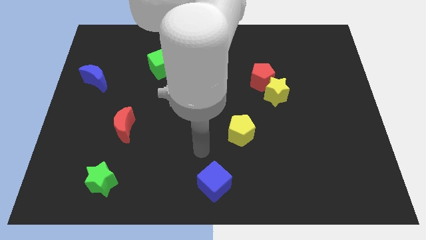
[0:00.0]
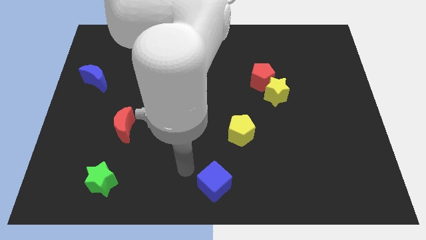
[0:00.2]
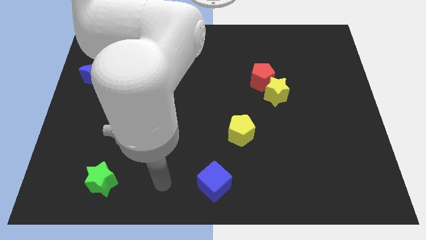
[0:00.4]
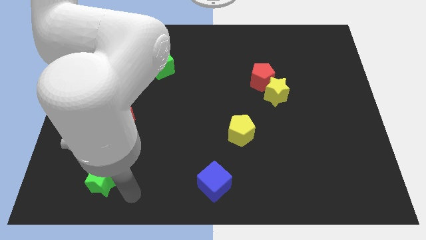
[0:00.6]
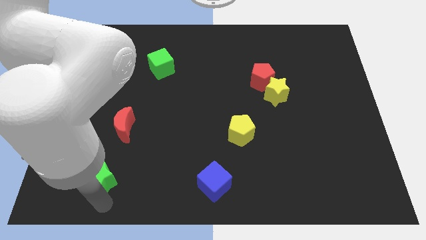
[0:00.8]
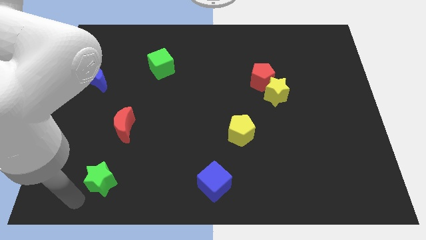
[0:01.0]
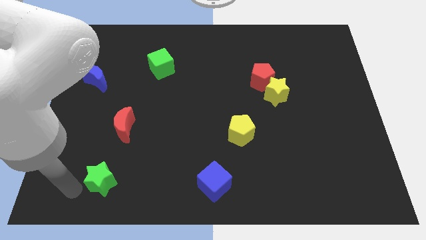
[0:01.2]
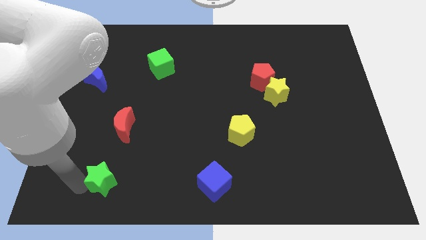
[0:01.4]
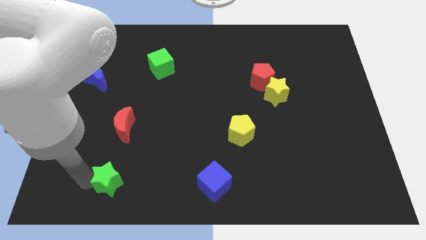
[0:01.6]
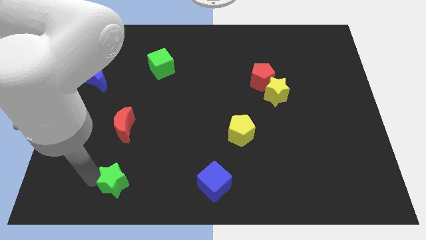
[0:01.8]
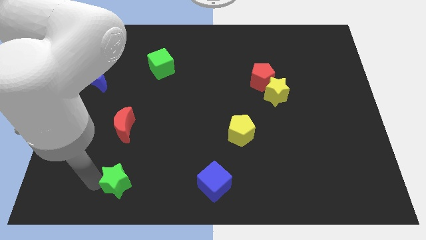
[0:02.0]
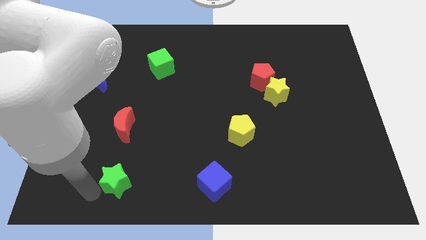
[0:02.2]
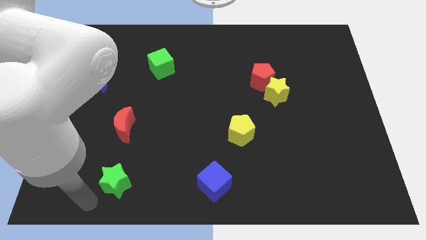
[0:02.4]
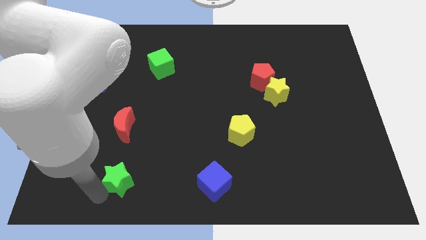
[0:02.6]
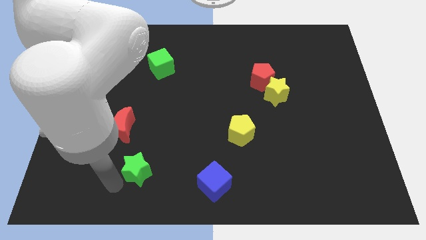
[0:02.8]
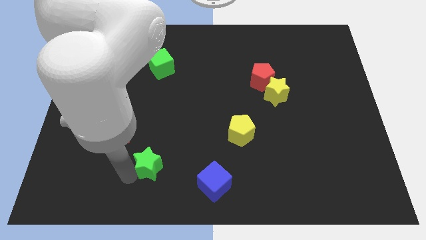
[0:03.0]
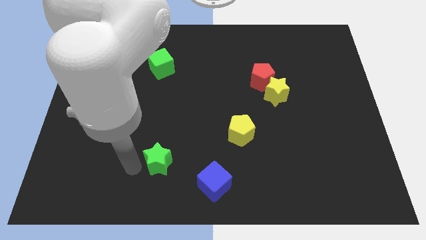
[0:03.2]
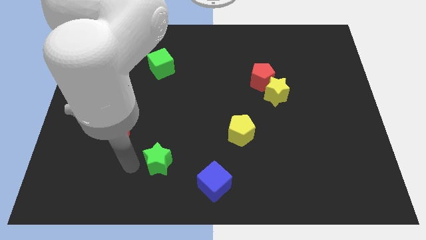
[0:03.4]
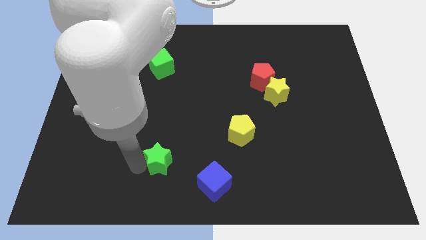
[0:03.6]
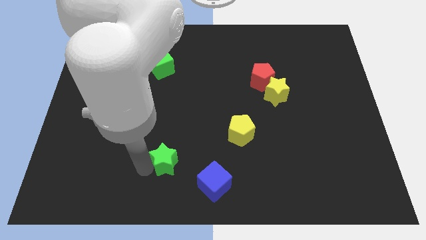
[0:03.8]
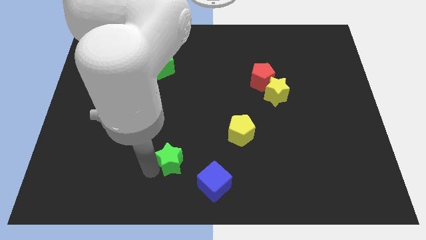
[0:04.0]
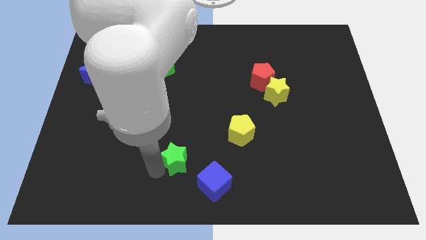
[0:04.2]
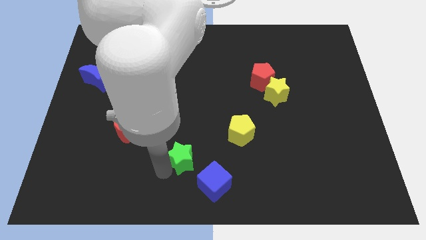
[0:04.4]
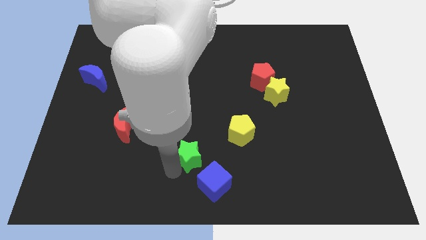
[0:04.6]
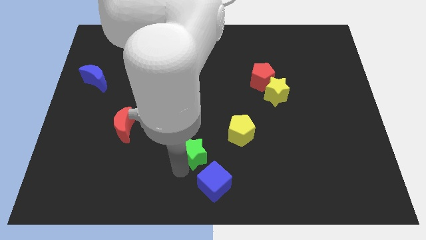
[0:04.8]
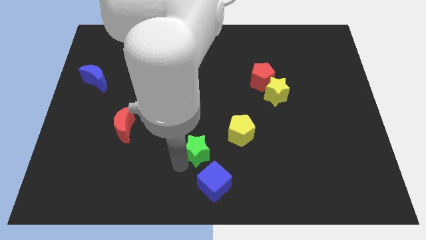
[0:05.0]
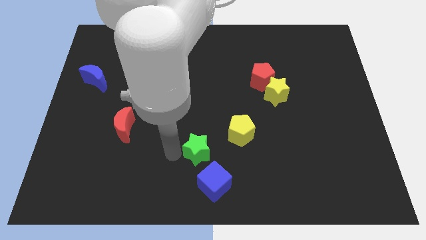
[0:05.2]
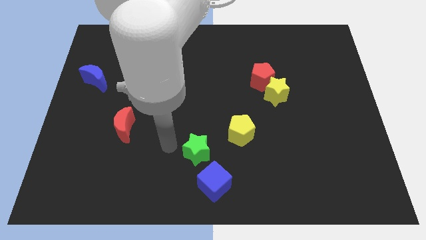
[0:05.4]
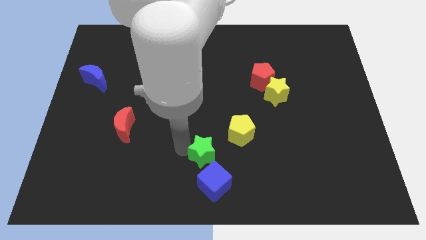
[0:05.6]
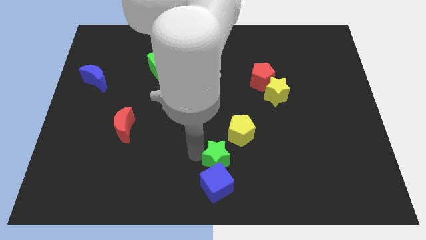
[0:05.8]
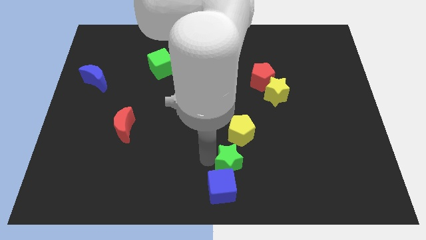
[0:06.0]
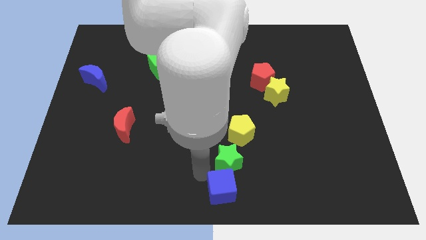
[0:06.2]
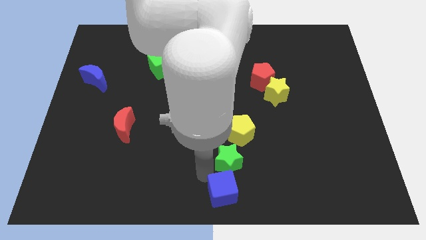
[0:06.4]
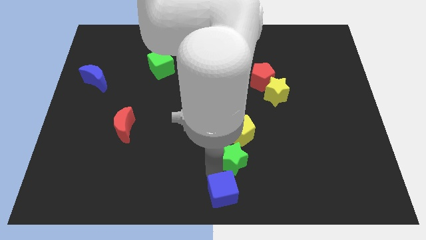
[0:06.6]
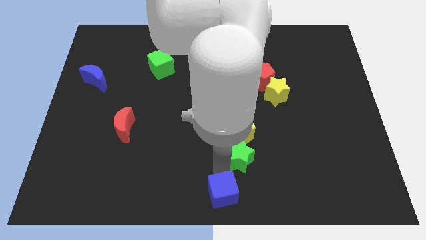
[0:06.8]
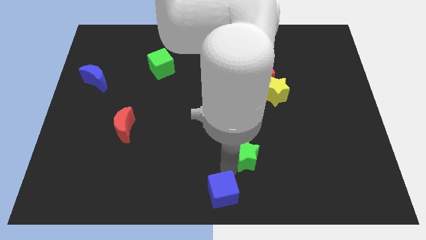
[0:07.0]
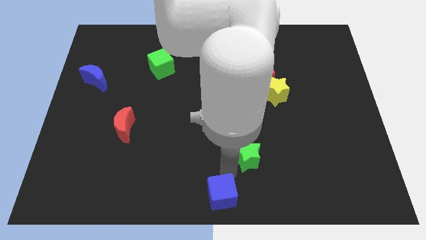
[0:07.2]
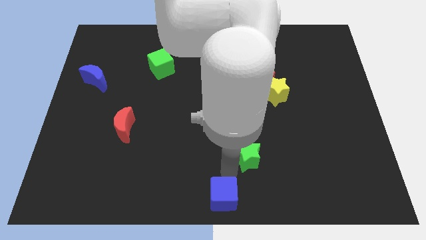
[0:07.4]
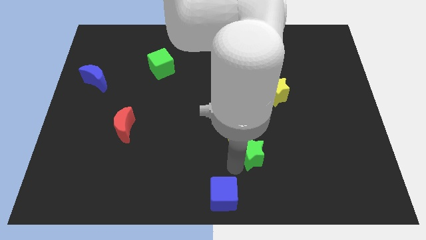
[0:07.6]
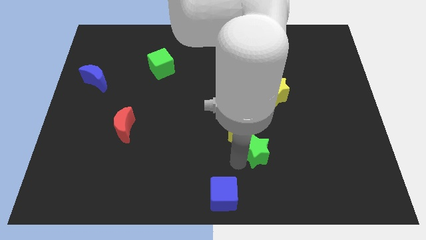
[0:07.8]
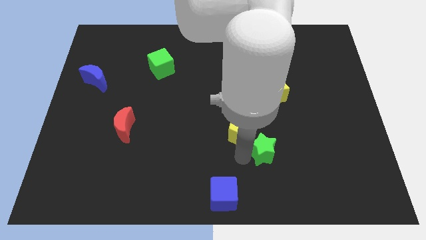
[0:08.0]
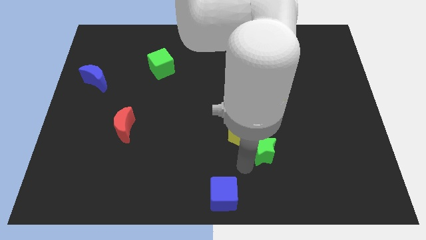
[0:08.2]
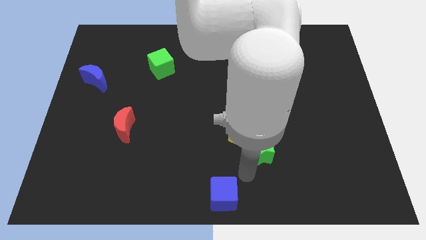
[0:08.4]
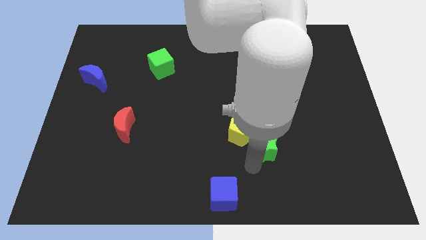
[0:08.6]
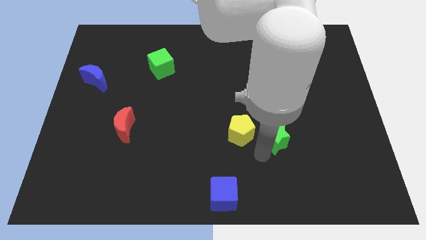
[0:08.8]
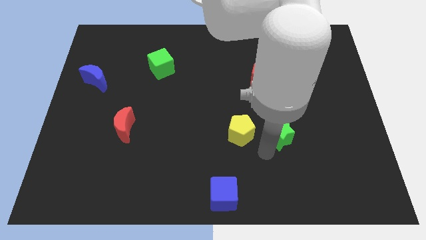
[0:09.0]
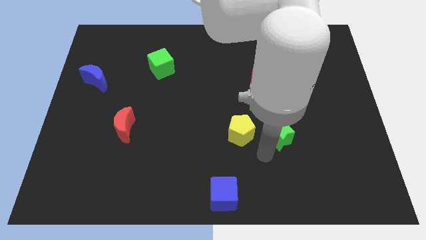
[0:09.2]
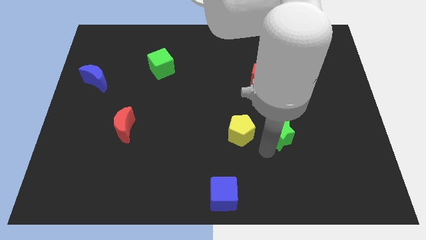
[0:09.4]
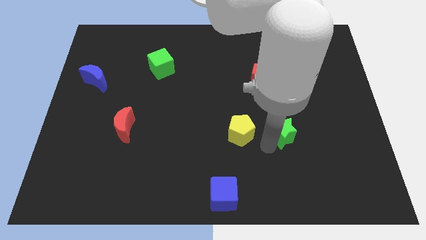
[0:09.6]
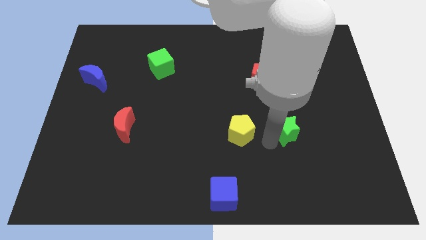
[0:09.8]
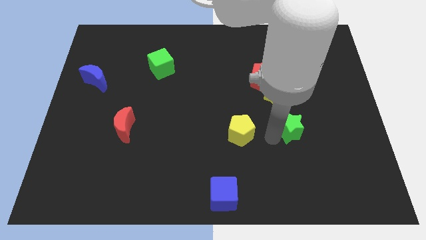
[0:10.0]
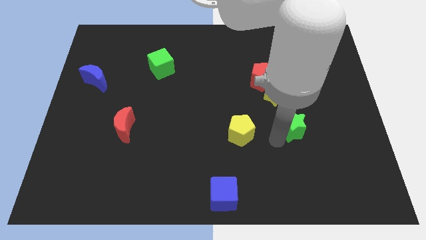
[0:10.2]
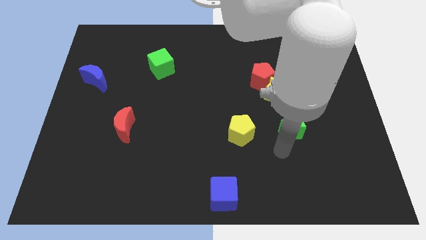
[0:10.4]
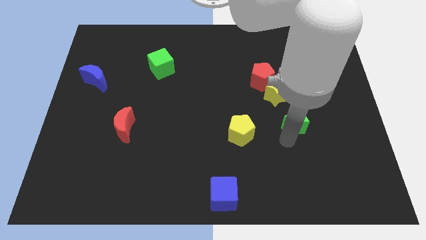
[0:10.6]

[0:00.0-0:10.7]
push the green star diagonally down and to the right of the yellow star

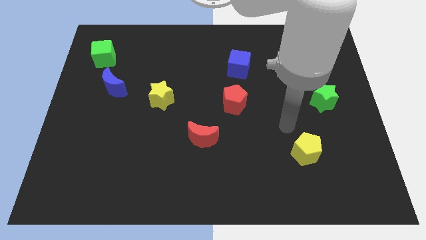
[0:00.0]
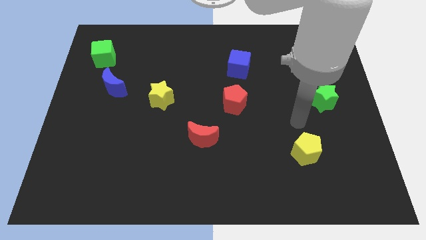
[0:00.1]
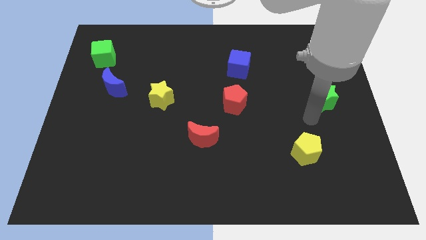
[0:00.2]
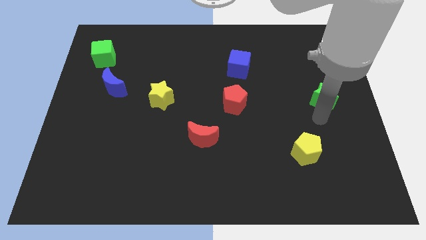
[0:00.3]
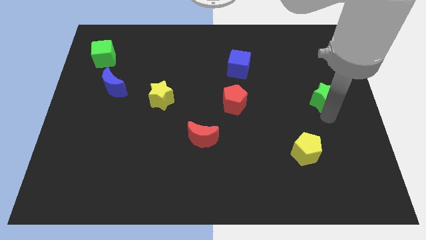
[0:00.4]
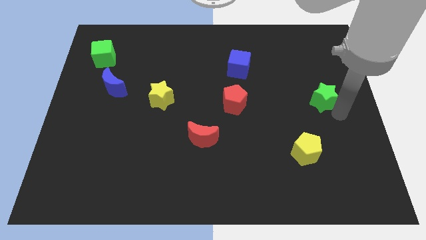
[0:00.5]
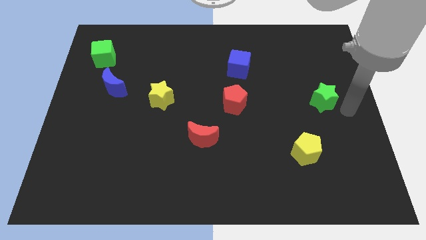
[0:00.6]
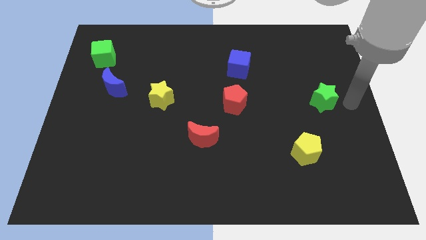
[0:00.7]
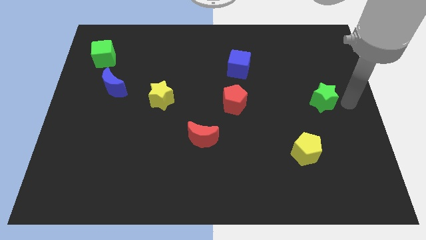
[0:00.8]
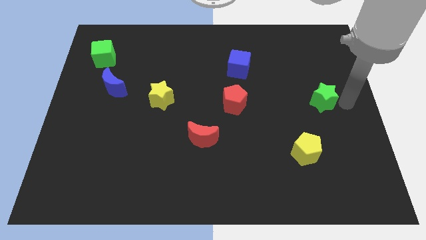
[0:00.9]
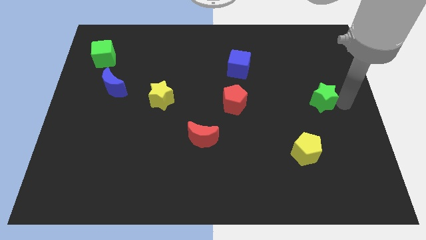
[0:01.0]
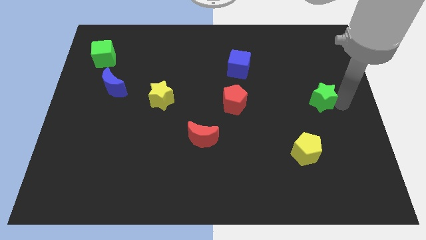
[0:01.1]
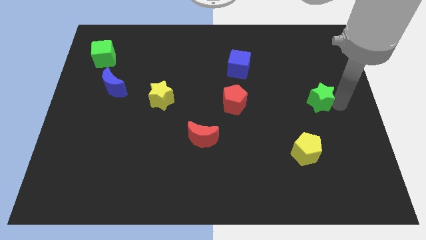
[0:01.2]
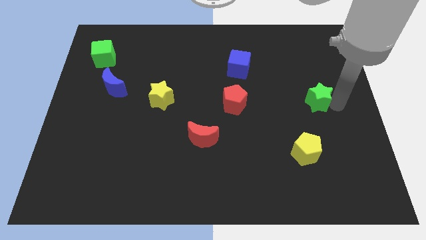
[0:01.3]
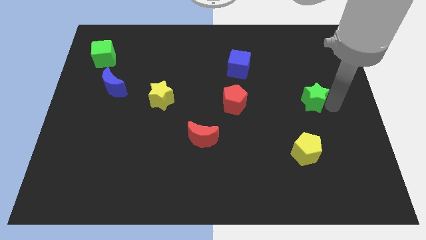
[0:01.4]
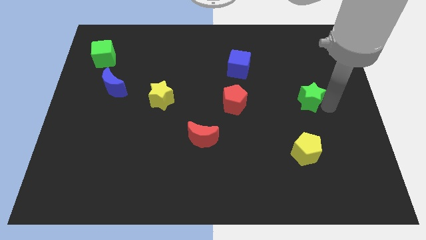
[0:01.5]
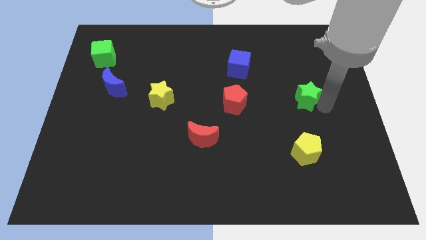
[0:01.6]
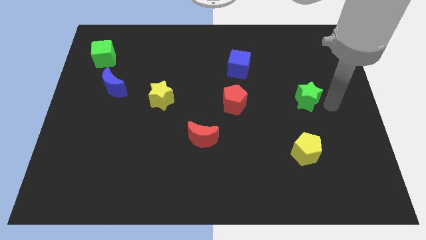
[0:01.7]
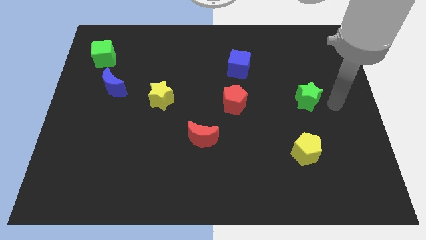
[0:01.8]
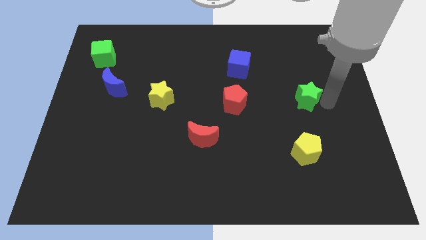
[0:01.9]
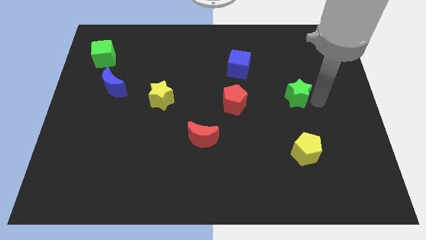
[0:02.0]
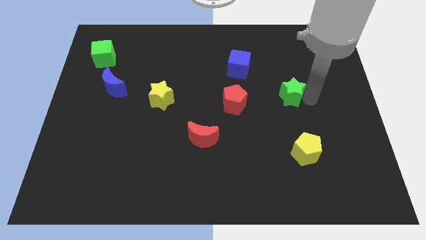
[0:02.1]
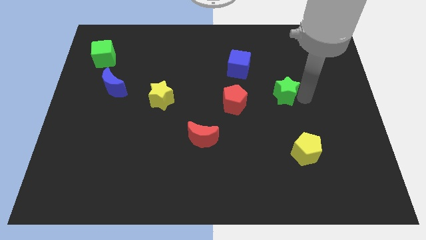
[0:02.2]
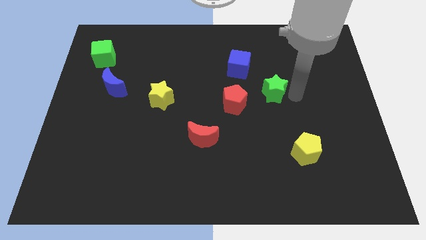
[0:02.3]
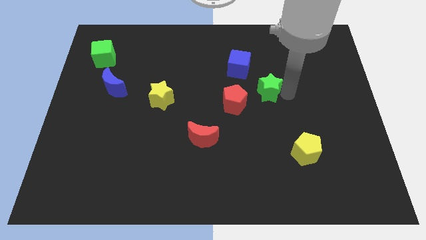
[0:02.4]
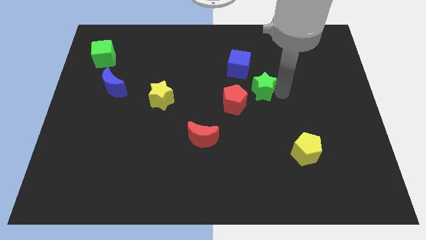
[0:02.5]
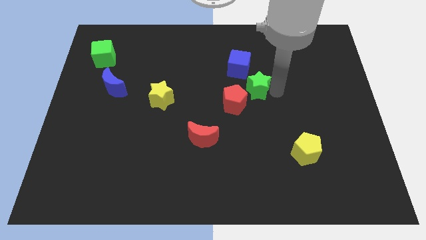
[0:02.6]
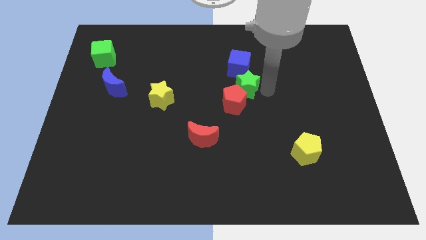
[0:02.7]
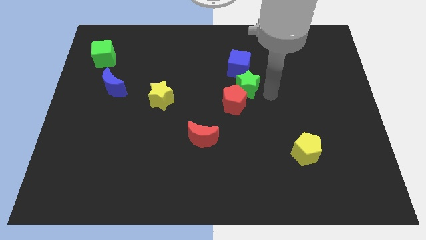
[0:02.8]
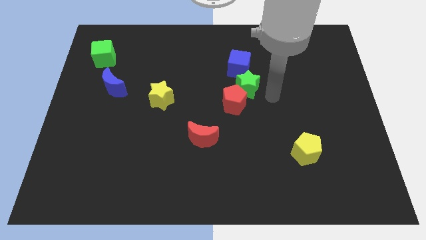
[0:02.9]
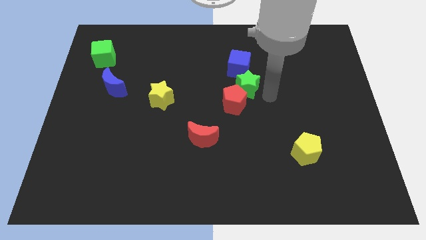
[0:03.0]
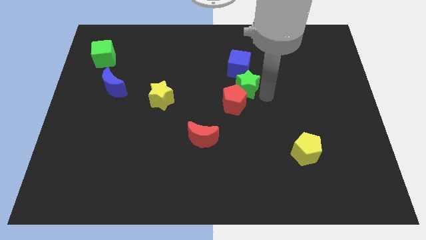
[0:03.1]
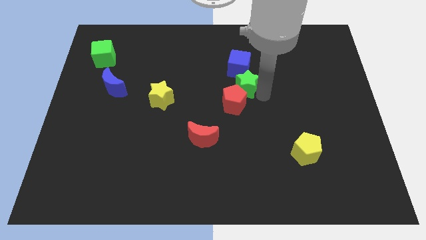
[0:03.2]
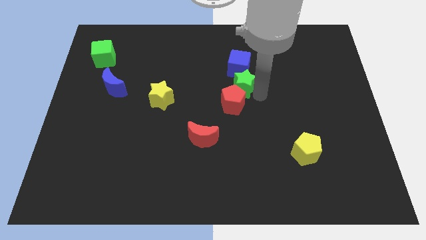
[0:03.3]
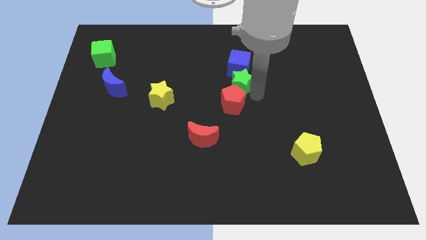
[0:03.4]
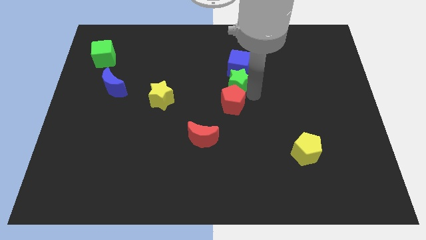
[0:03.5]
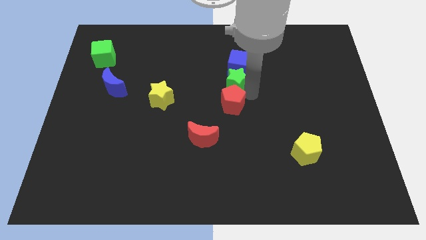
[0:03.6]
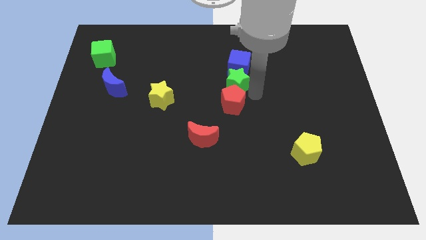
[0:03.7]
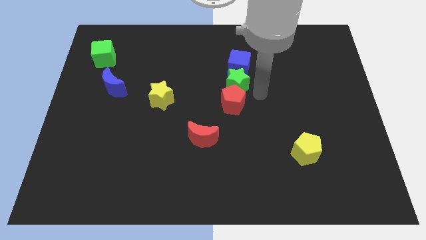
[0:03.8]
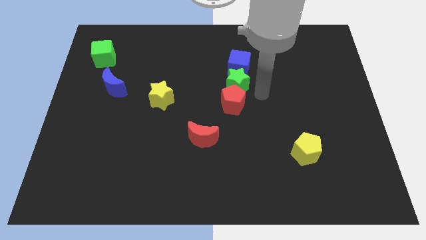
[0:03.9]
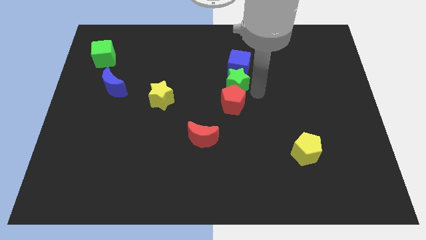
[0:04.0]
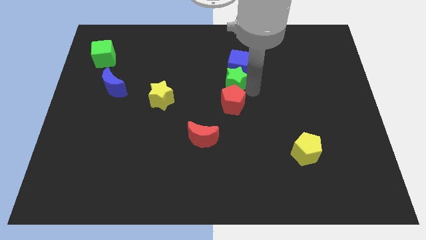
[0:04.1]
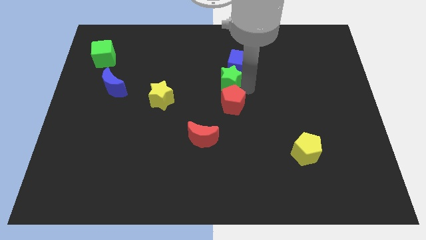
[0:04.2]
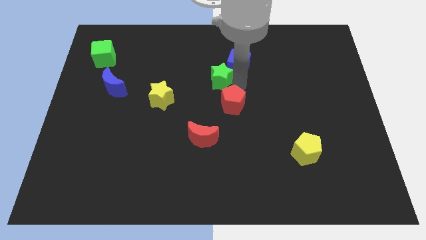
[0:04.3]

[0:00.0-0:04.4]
slide the green star to the left side of the blue cube
